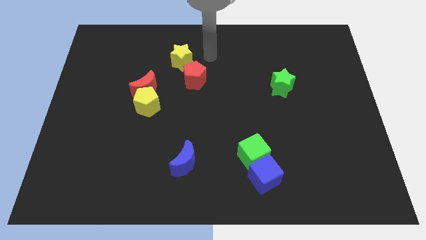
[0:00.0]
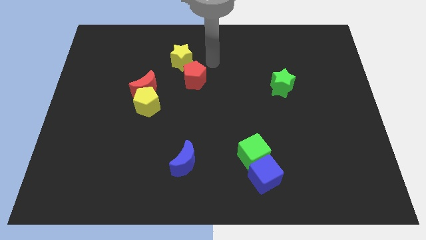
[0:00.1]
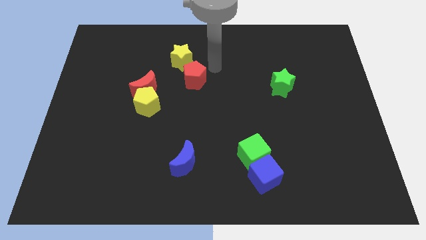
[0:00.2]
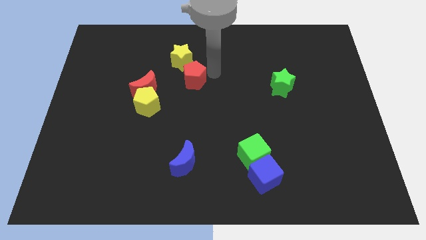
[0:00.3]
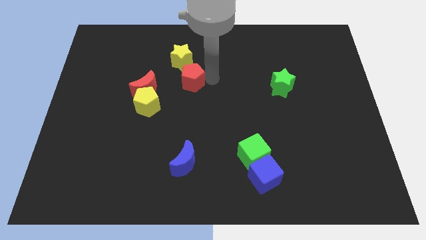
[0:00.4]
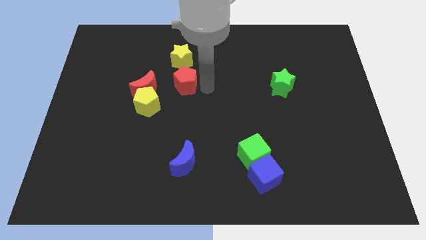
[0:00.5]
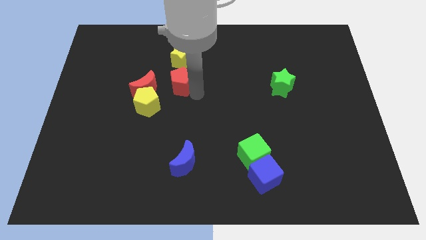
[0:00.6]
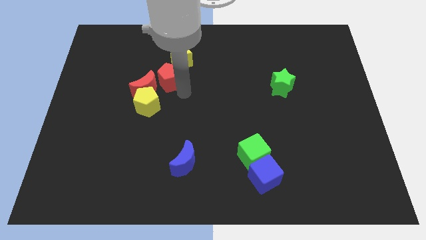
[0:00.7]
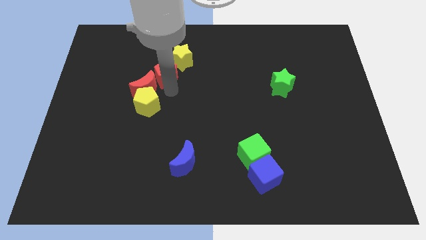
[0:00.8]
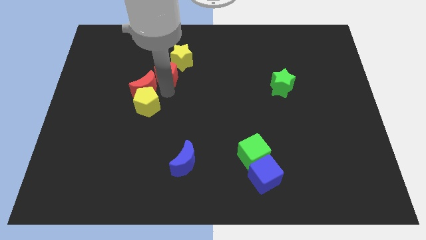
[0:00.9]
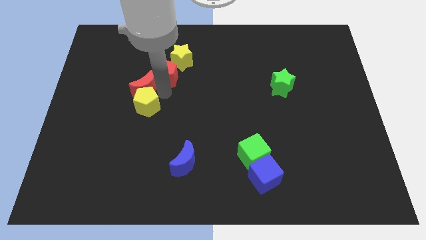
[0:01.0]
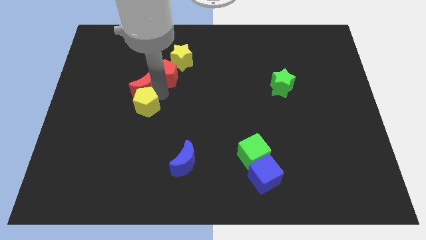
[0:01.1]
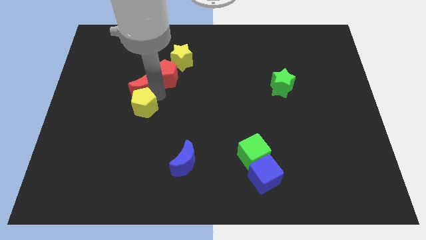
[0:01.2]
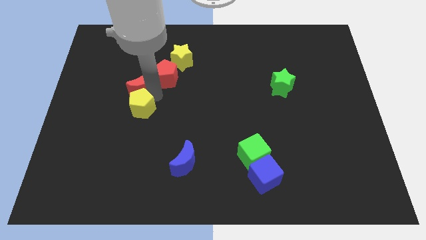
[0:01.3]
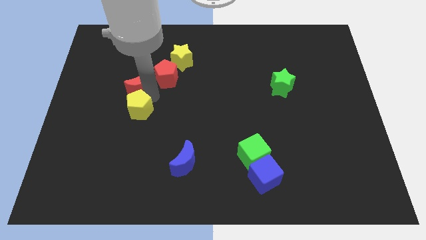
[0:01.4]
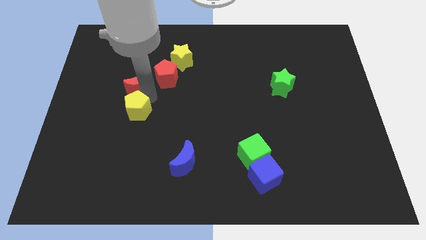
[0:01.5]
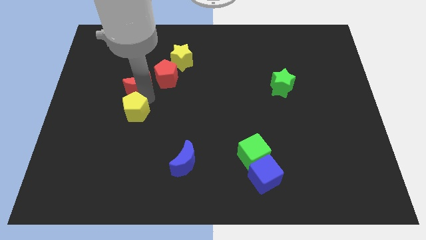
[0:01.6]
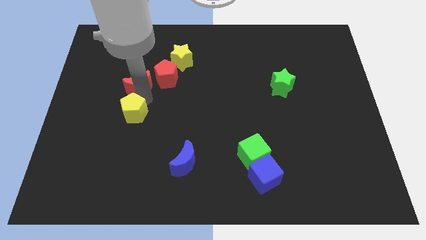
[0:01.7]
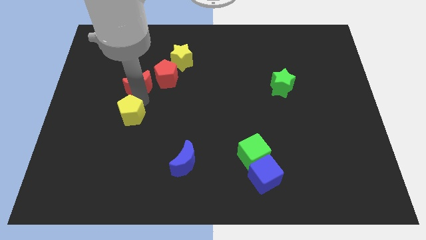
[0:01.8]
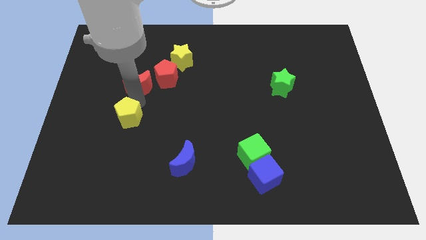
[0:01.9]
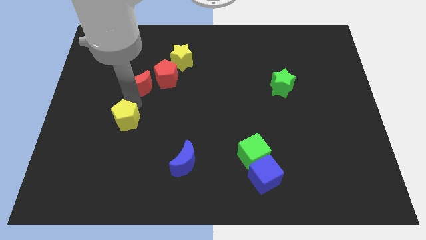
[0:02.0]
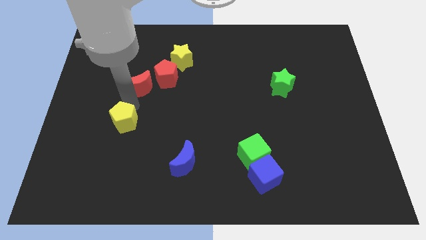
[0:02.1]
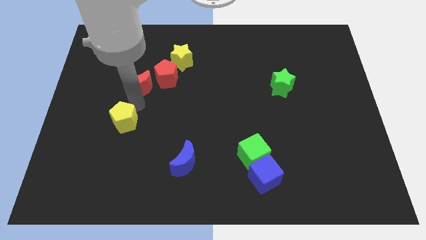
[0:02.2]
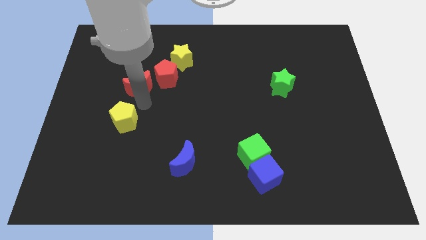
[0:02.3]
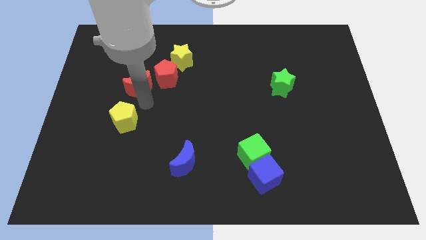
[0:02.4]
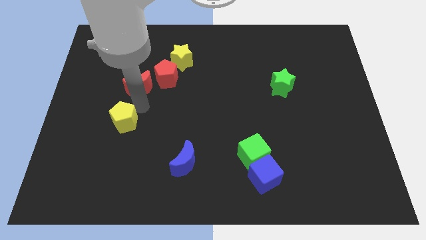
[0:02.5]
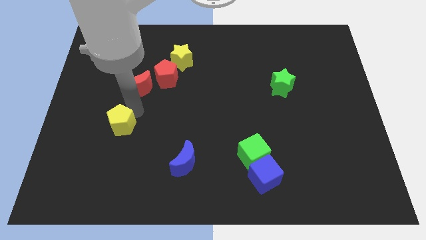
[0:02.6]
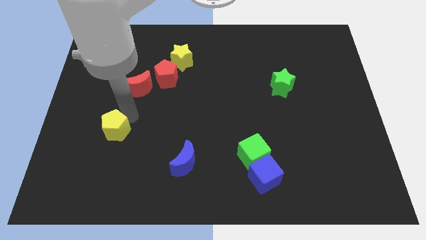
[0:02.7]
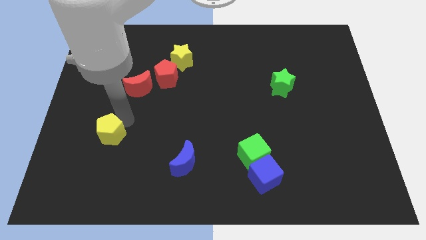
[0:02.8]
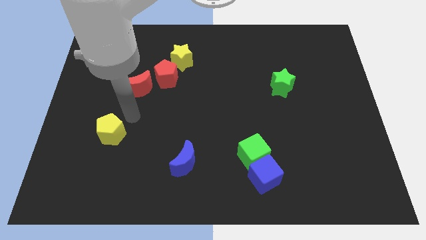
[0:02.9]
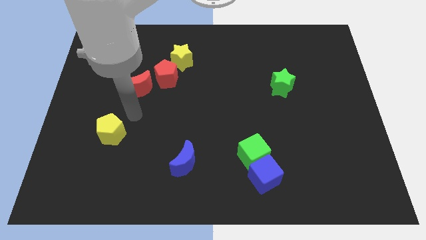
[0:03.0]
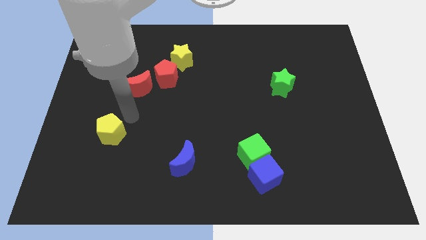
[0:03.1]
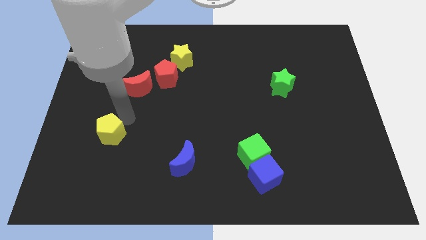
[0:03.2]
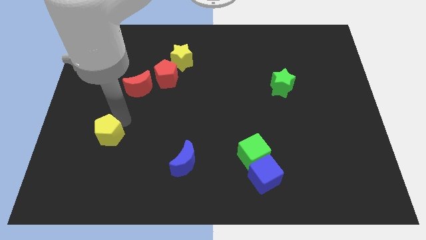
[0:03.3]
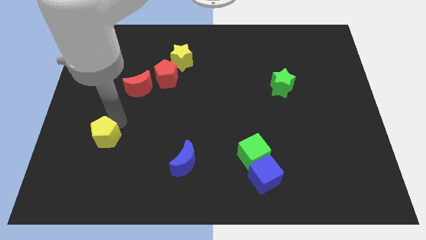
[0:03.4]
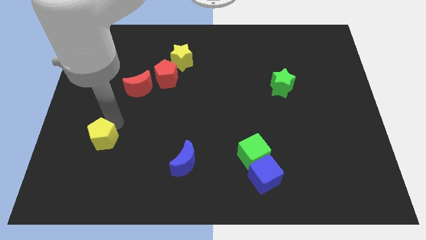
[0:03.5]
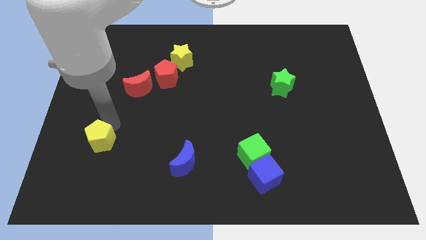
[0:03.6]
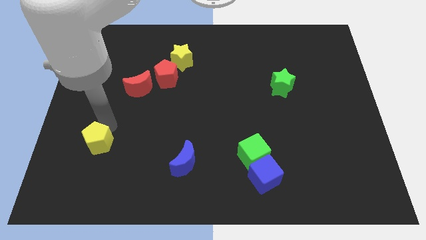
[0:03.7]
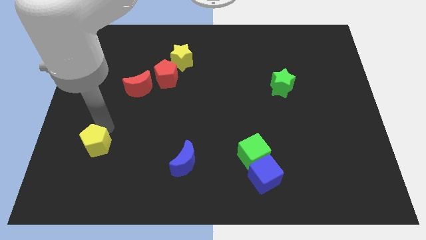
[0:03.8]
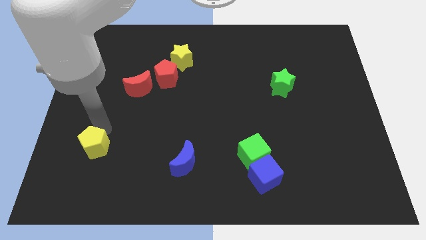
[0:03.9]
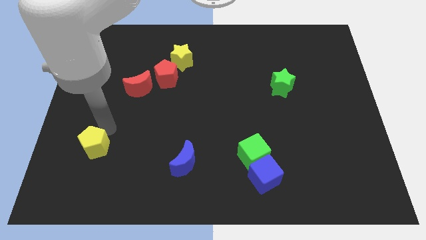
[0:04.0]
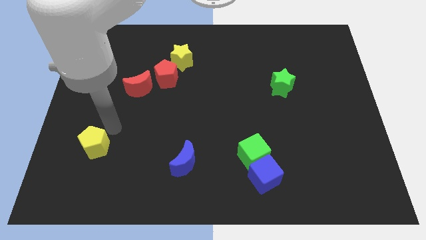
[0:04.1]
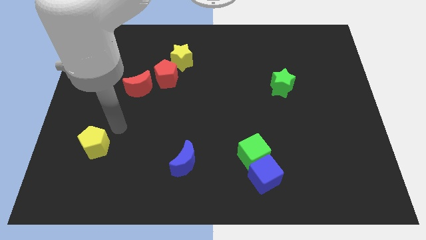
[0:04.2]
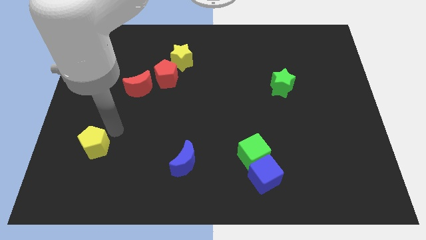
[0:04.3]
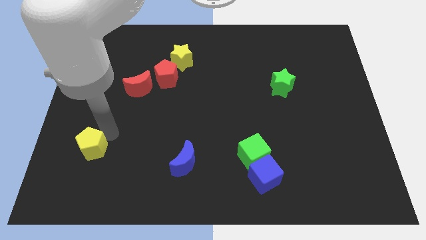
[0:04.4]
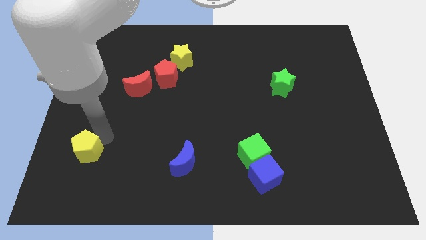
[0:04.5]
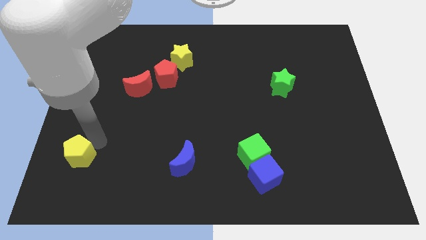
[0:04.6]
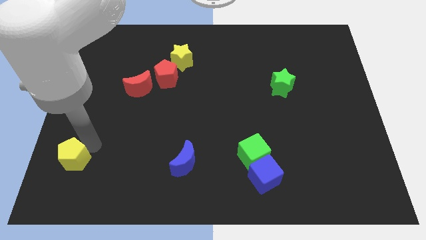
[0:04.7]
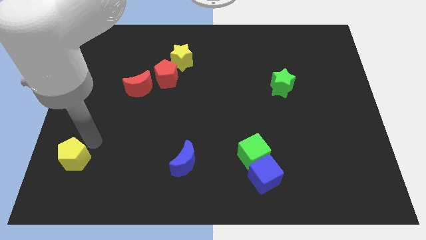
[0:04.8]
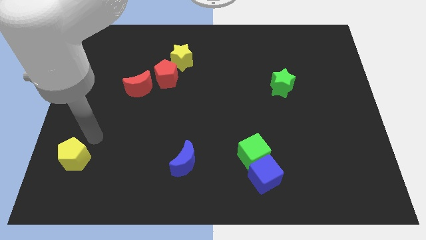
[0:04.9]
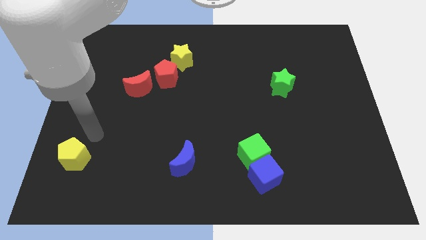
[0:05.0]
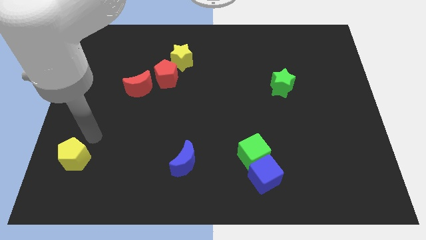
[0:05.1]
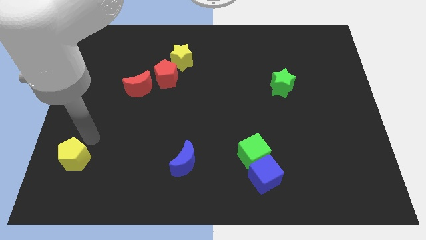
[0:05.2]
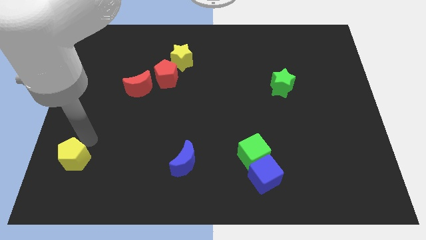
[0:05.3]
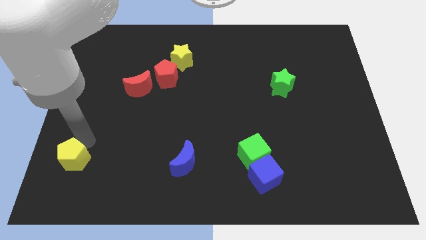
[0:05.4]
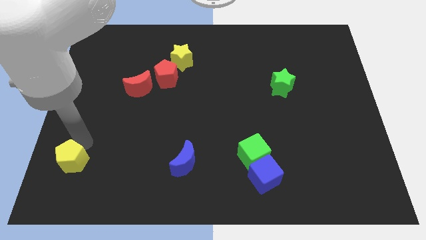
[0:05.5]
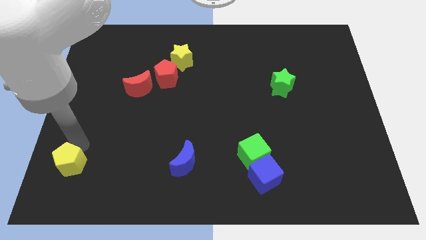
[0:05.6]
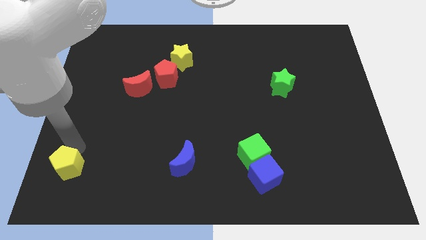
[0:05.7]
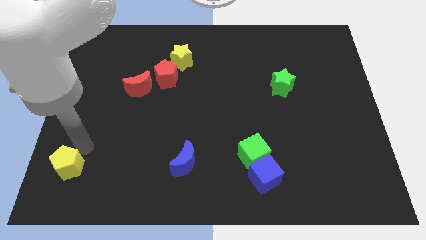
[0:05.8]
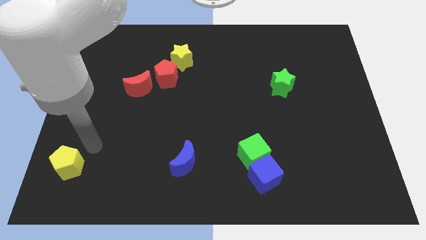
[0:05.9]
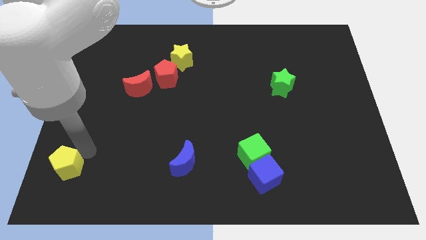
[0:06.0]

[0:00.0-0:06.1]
slide the yellow pentagon to the lower left corner
